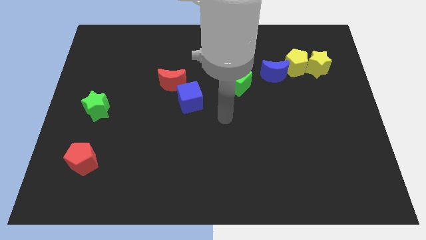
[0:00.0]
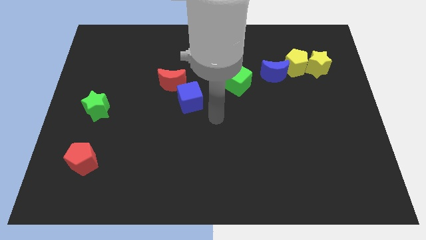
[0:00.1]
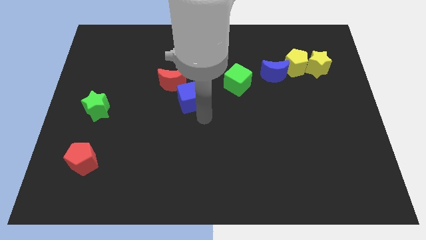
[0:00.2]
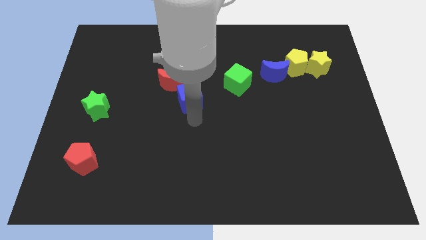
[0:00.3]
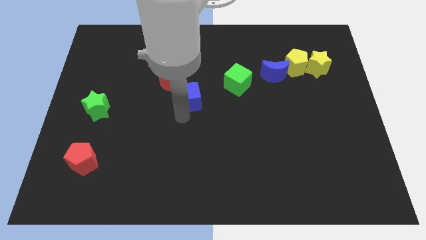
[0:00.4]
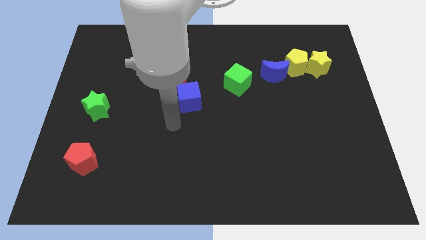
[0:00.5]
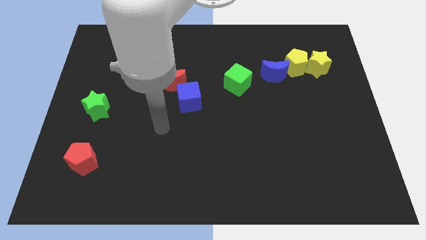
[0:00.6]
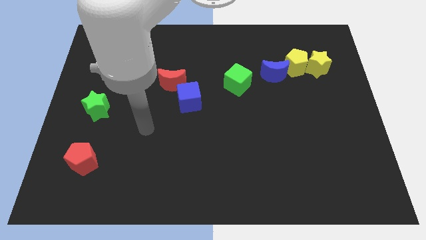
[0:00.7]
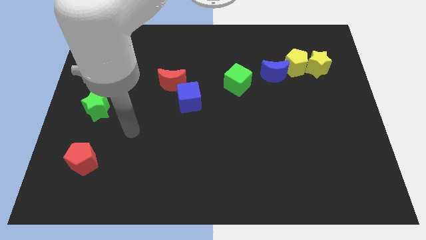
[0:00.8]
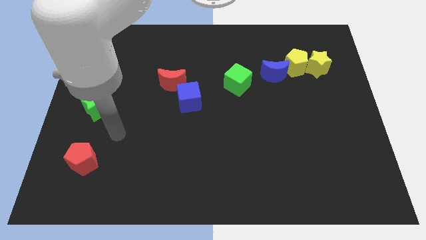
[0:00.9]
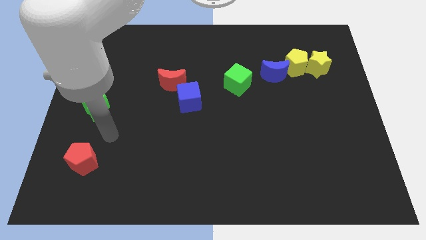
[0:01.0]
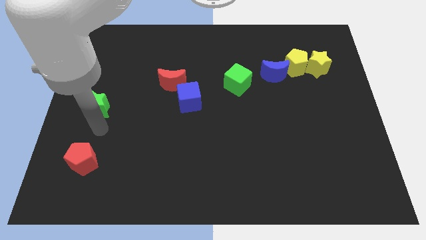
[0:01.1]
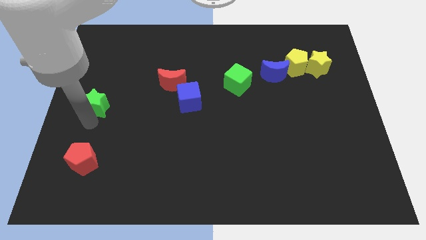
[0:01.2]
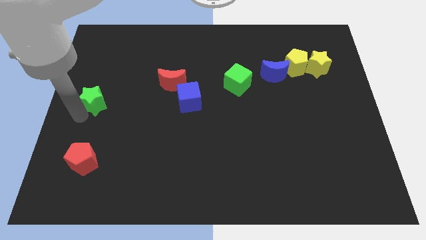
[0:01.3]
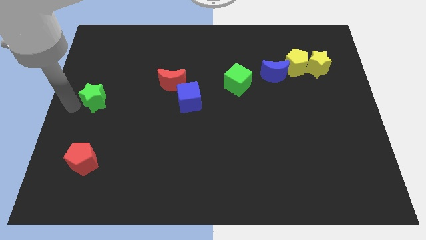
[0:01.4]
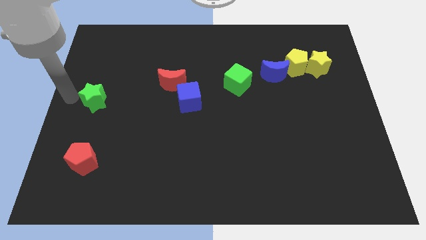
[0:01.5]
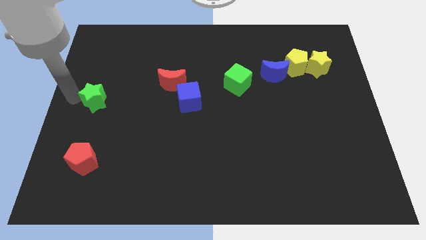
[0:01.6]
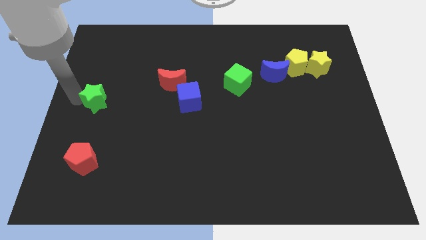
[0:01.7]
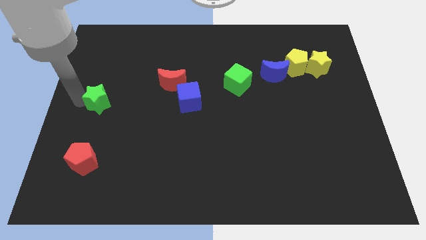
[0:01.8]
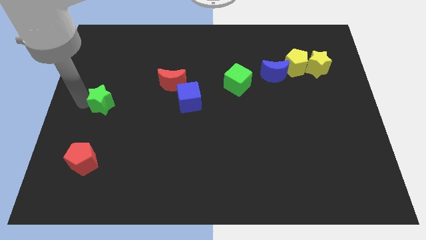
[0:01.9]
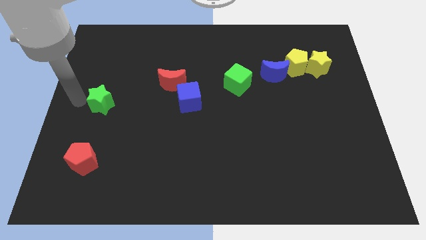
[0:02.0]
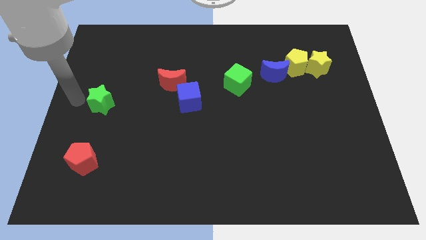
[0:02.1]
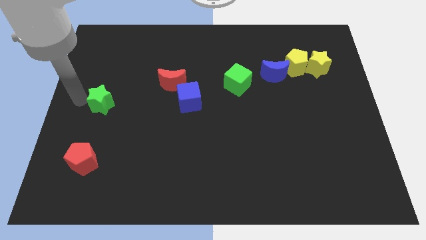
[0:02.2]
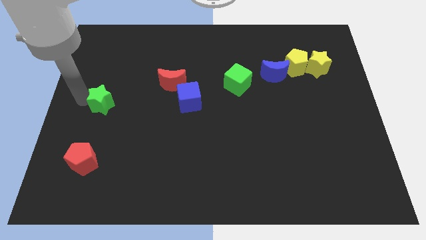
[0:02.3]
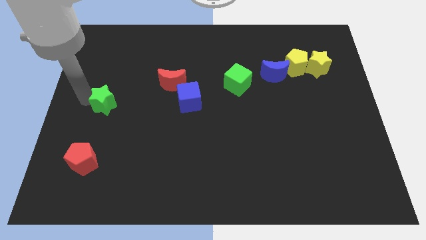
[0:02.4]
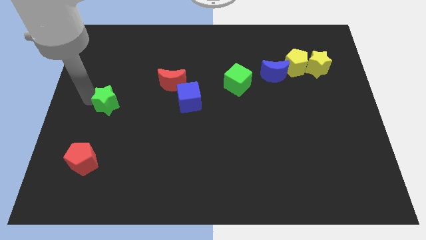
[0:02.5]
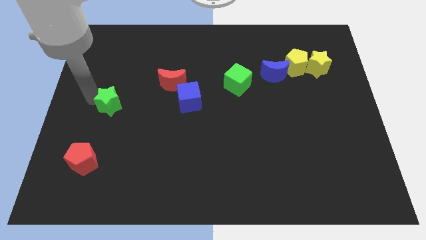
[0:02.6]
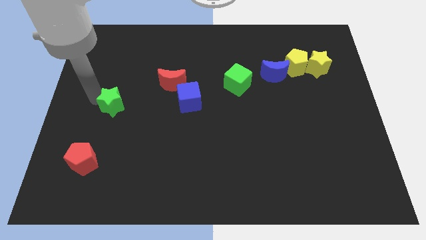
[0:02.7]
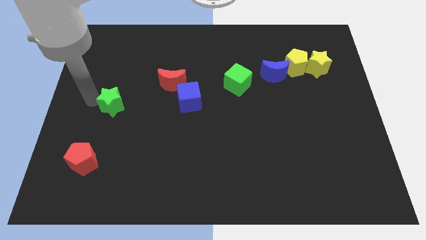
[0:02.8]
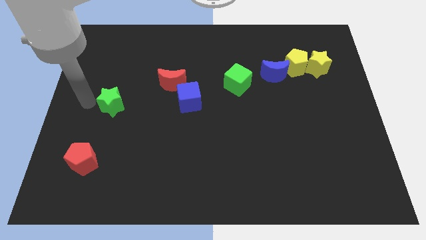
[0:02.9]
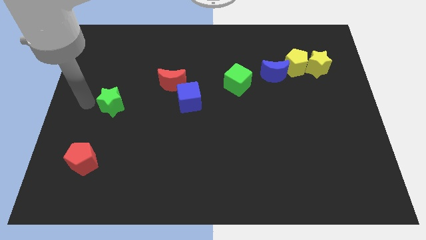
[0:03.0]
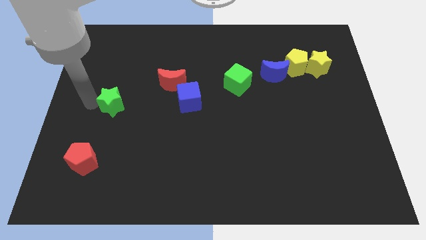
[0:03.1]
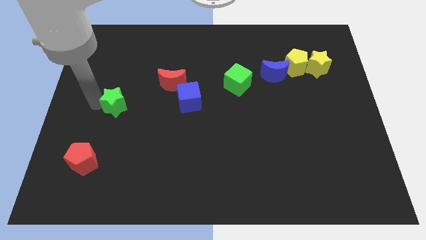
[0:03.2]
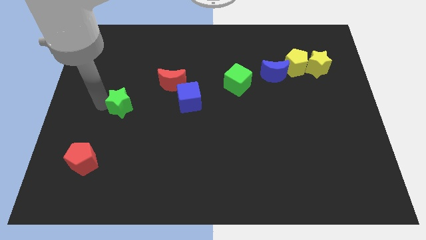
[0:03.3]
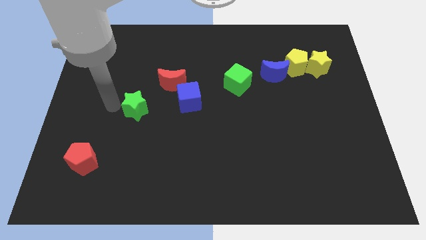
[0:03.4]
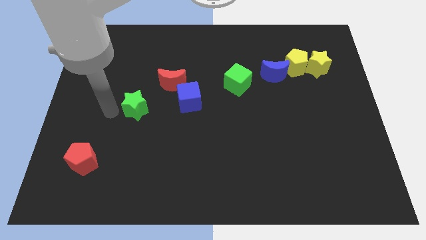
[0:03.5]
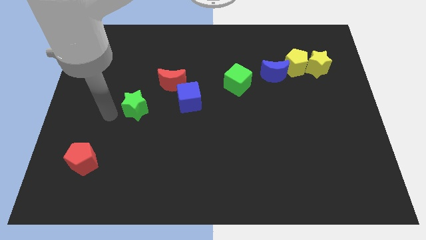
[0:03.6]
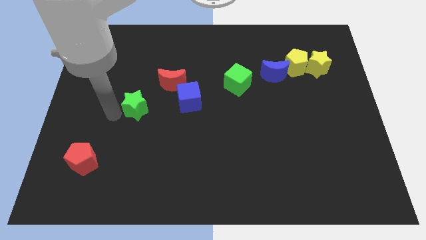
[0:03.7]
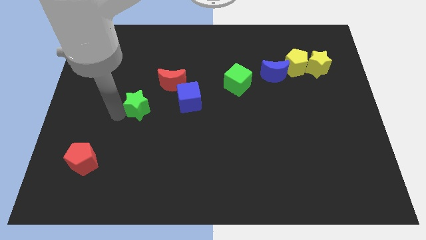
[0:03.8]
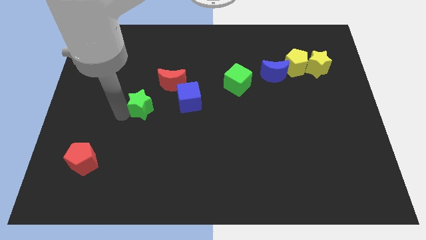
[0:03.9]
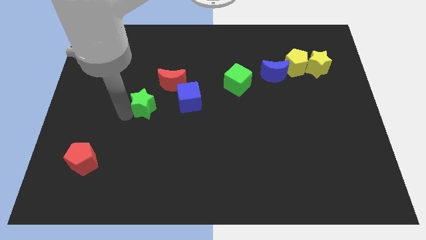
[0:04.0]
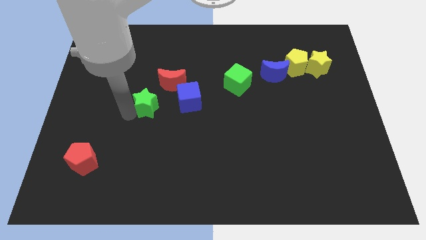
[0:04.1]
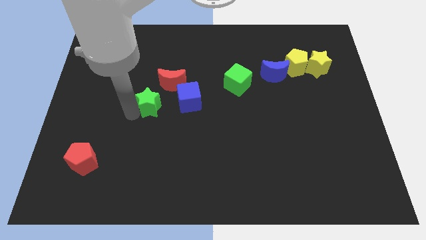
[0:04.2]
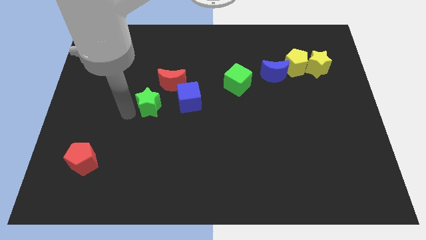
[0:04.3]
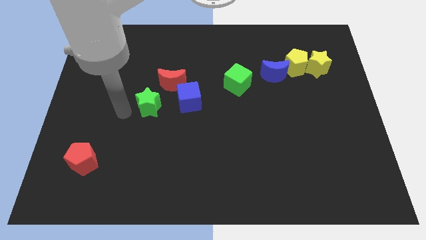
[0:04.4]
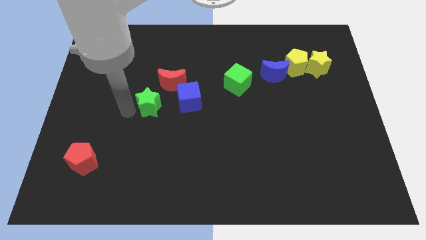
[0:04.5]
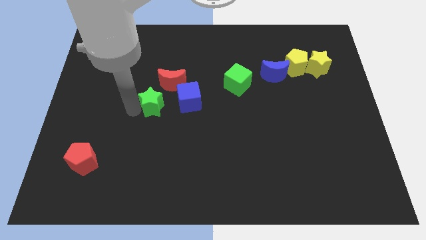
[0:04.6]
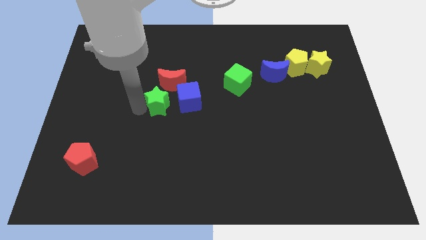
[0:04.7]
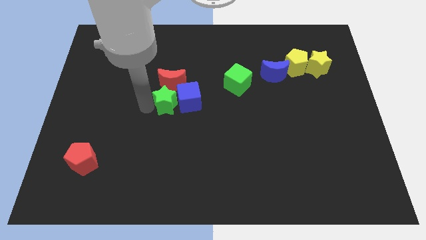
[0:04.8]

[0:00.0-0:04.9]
push the green star close to the blue cube

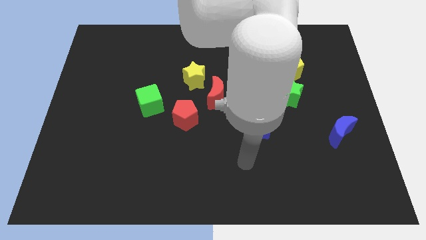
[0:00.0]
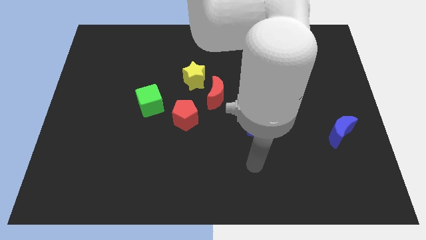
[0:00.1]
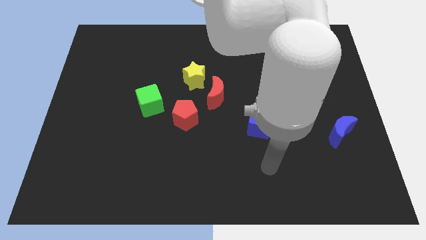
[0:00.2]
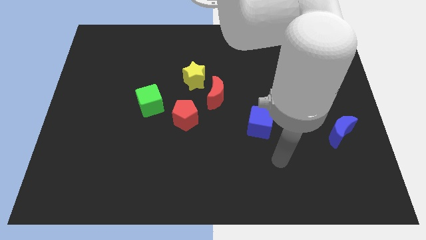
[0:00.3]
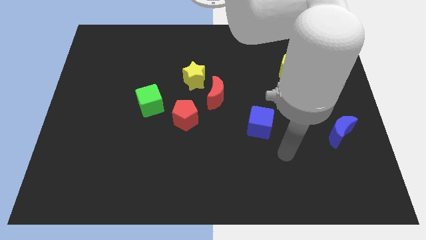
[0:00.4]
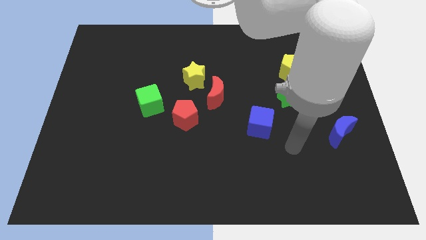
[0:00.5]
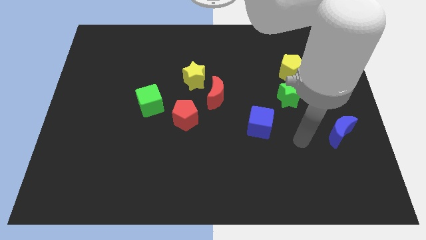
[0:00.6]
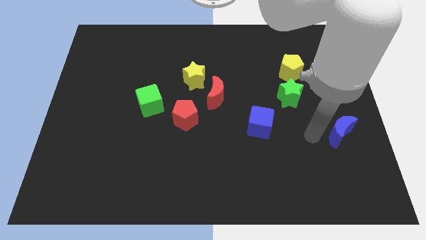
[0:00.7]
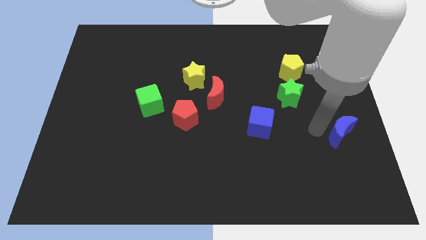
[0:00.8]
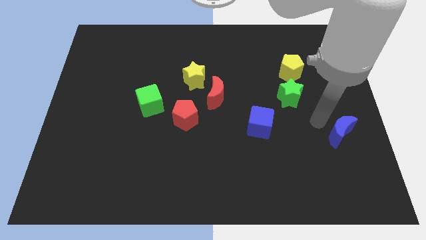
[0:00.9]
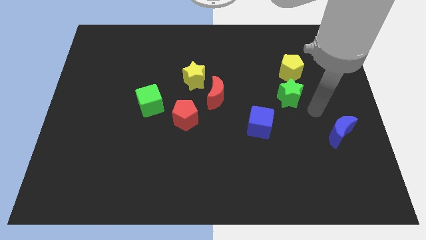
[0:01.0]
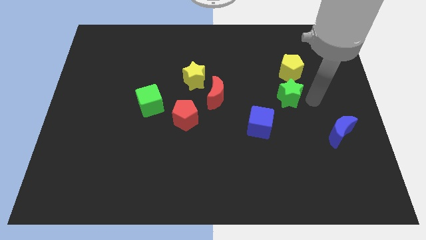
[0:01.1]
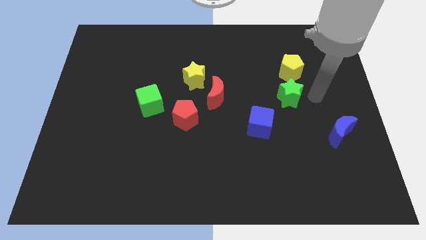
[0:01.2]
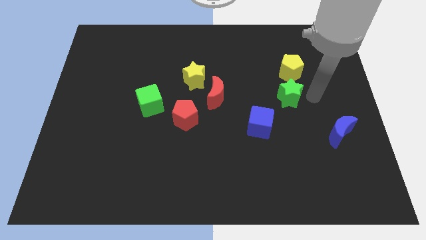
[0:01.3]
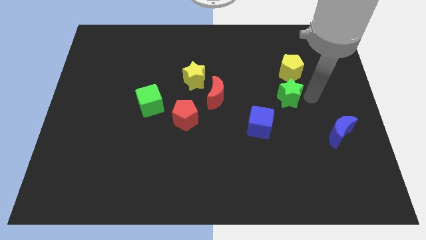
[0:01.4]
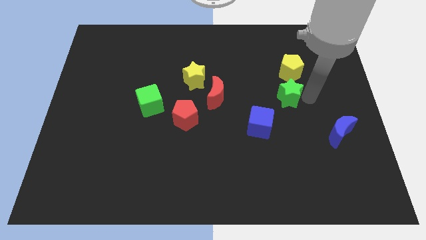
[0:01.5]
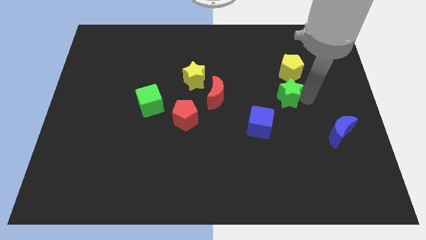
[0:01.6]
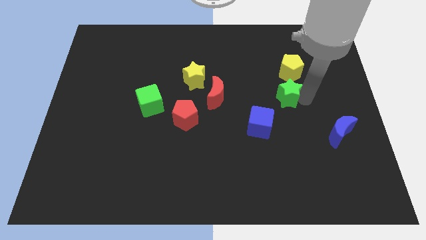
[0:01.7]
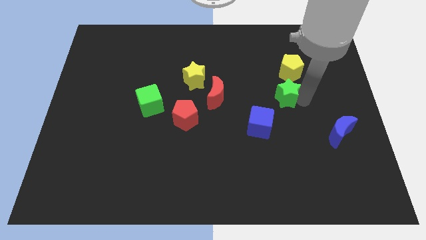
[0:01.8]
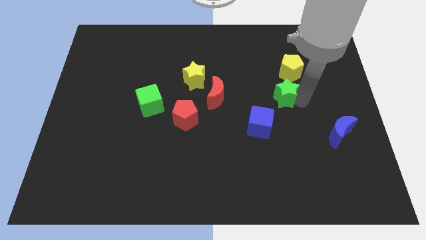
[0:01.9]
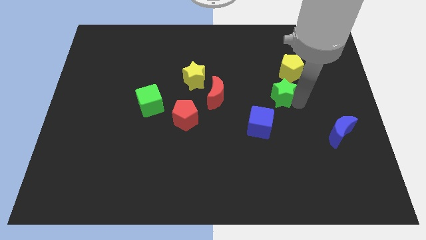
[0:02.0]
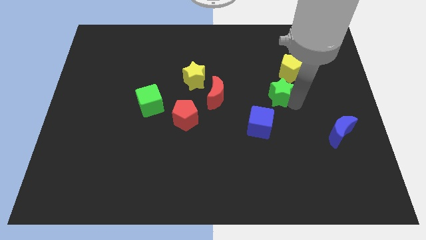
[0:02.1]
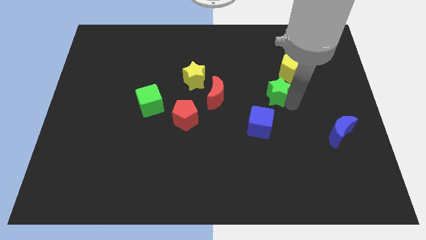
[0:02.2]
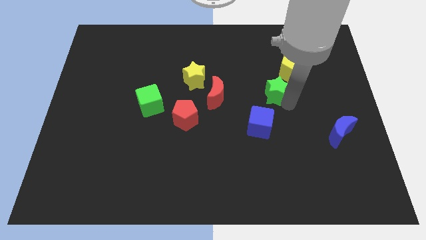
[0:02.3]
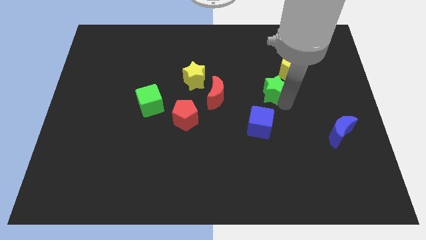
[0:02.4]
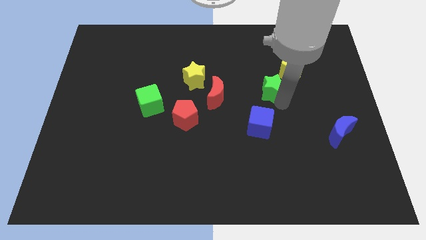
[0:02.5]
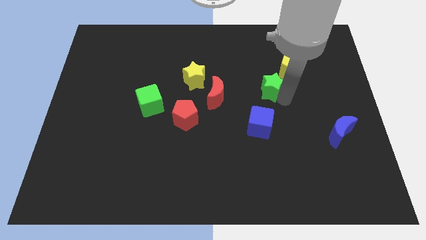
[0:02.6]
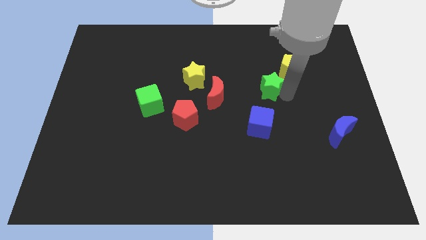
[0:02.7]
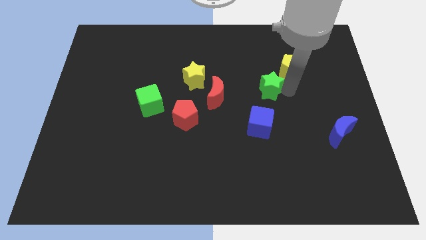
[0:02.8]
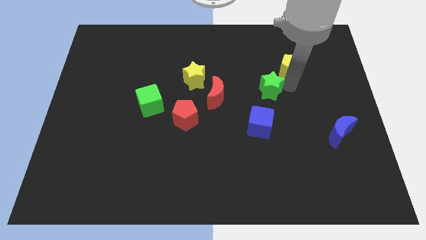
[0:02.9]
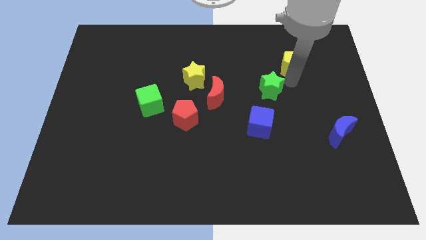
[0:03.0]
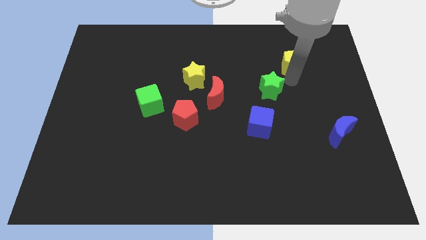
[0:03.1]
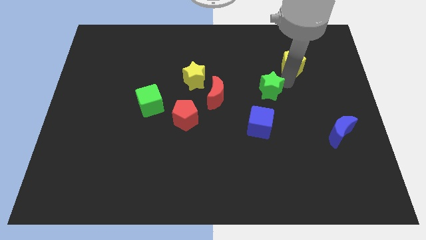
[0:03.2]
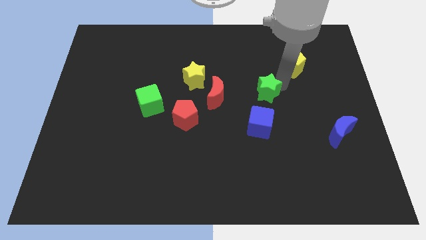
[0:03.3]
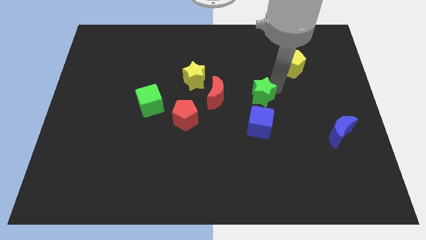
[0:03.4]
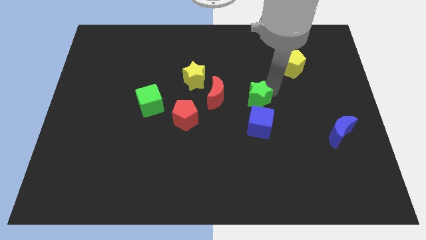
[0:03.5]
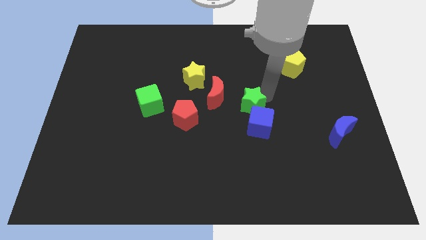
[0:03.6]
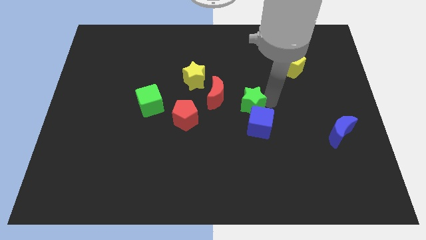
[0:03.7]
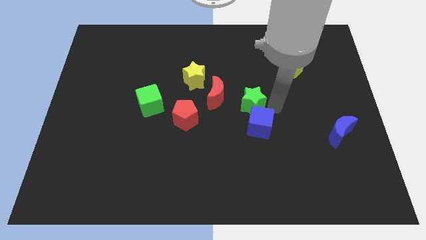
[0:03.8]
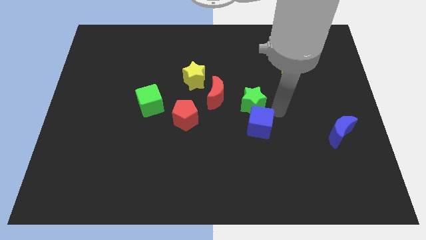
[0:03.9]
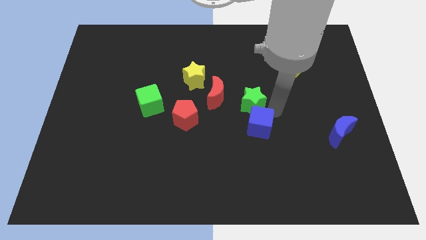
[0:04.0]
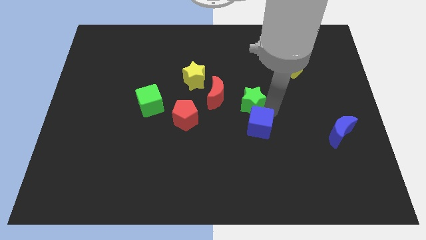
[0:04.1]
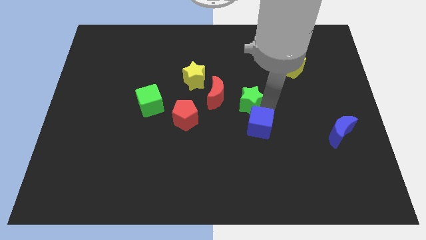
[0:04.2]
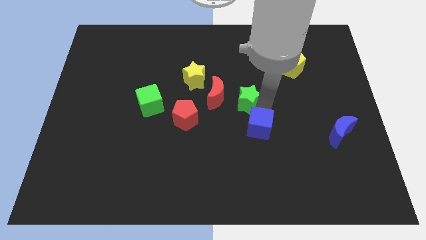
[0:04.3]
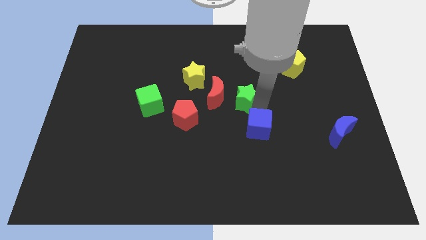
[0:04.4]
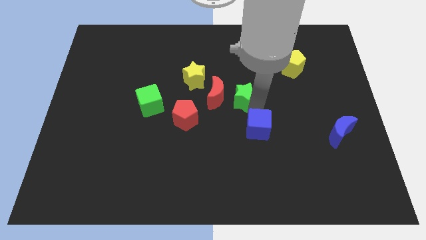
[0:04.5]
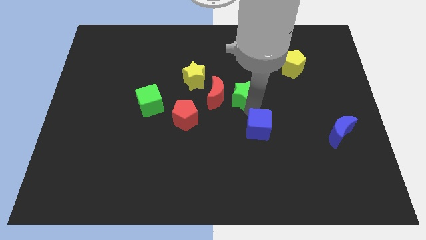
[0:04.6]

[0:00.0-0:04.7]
push the green star close to the red moon
